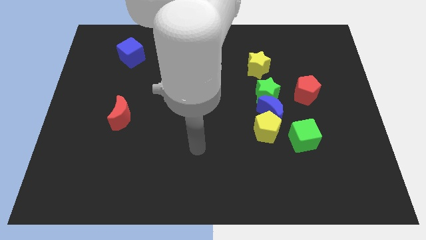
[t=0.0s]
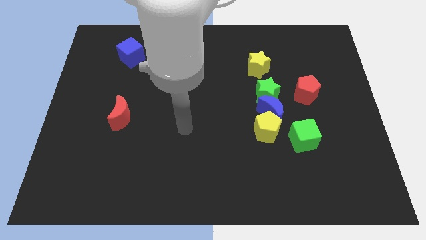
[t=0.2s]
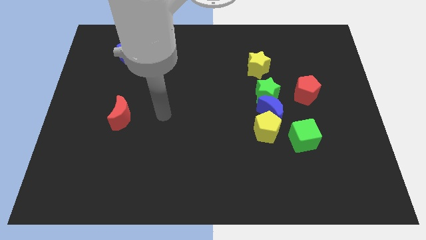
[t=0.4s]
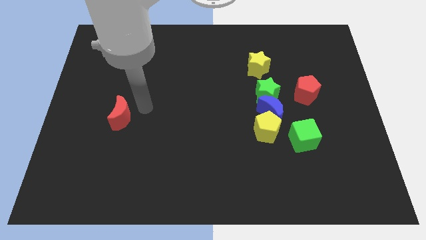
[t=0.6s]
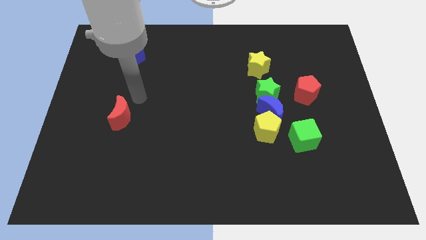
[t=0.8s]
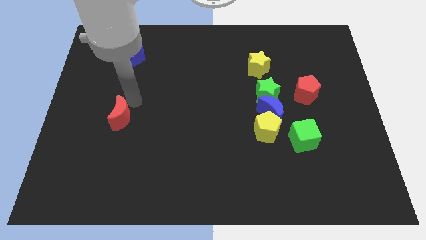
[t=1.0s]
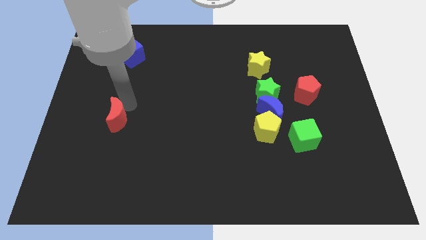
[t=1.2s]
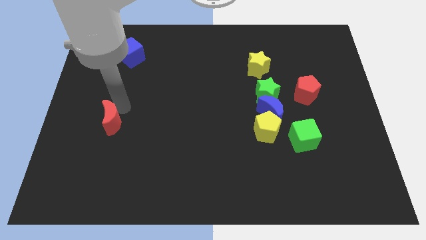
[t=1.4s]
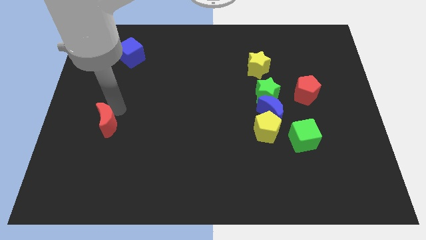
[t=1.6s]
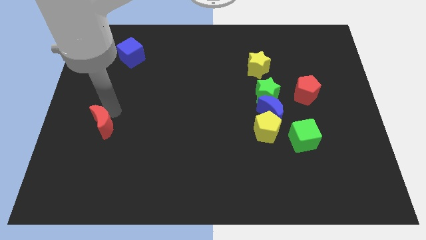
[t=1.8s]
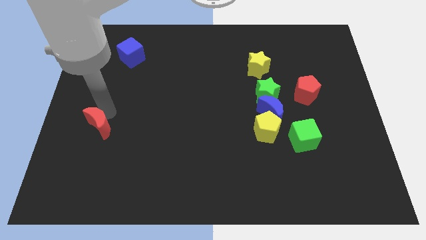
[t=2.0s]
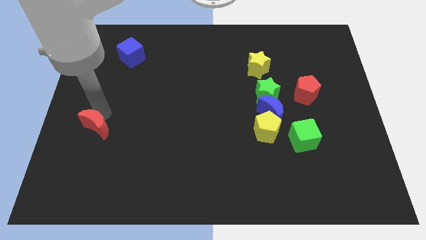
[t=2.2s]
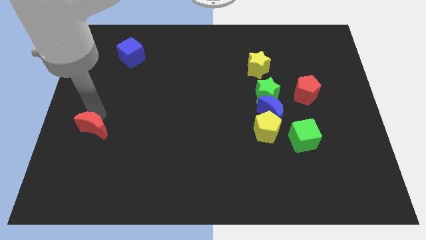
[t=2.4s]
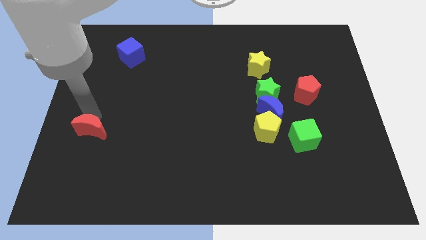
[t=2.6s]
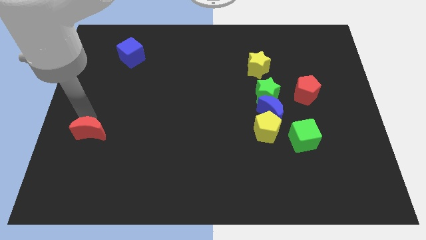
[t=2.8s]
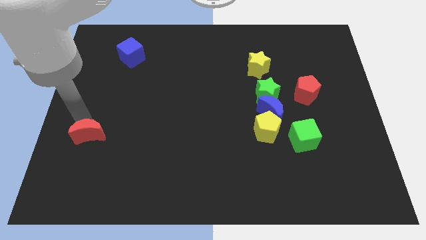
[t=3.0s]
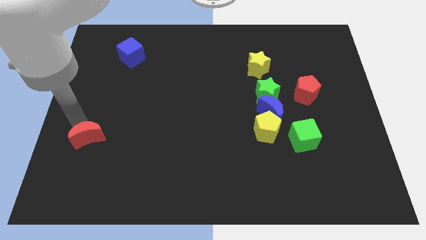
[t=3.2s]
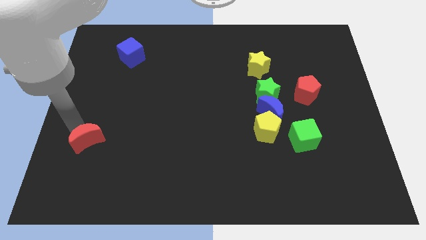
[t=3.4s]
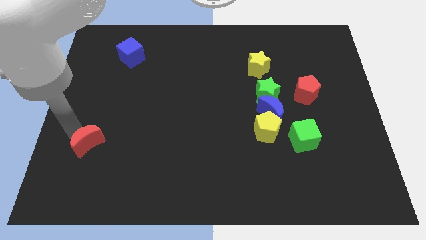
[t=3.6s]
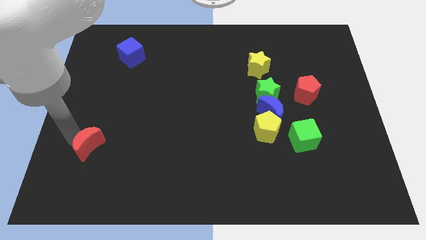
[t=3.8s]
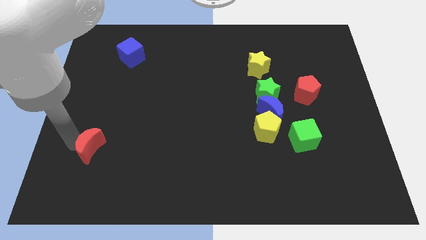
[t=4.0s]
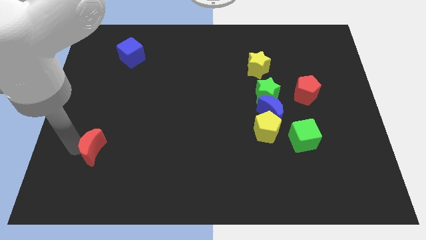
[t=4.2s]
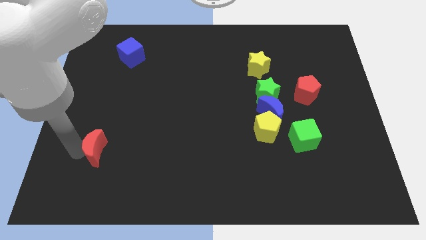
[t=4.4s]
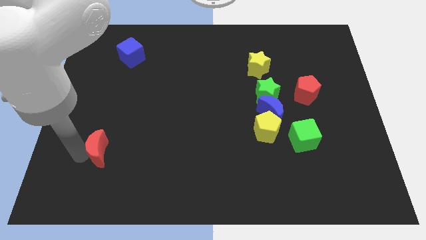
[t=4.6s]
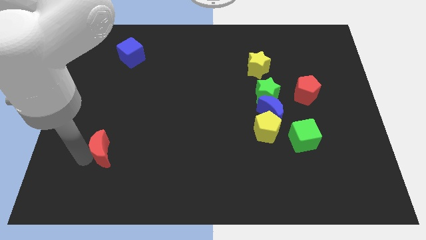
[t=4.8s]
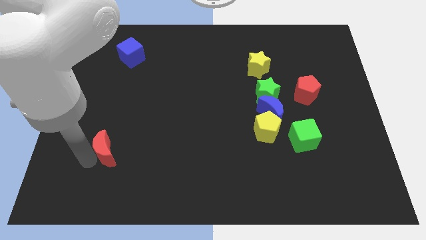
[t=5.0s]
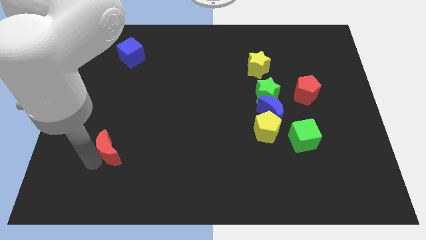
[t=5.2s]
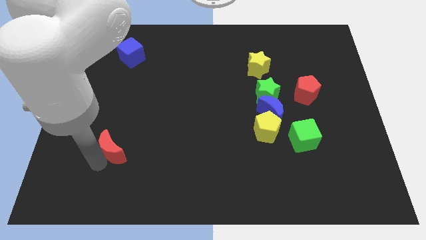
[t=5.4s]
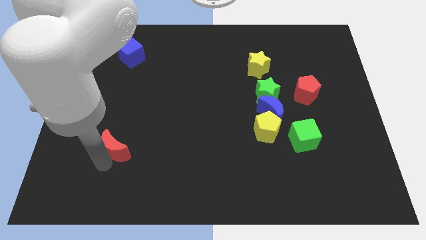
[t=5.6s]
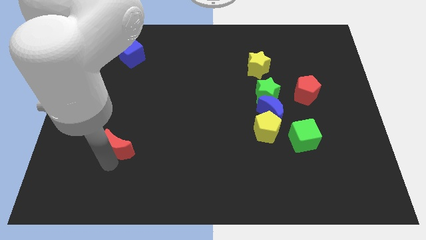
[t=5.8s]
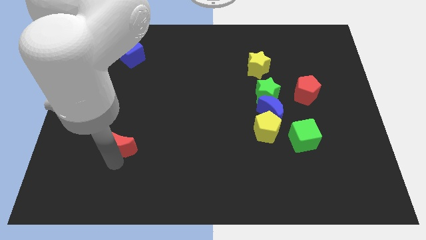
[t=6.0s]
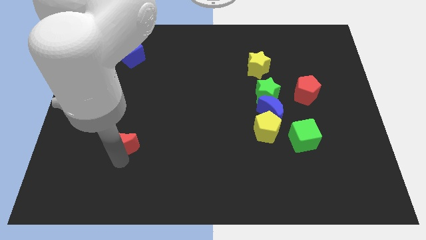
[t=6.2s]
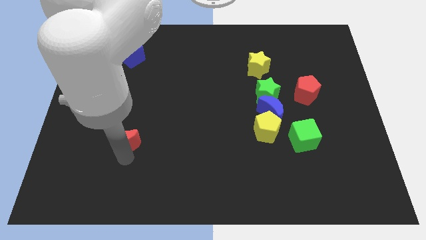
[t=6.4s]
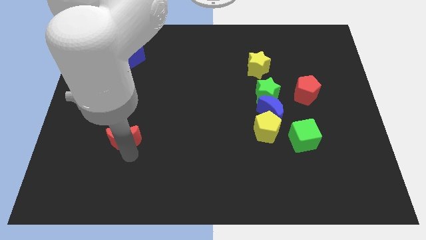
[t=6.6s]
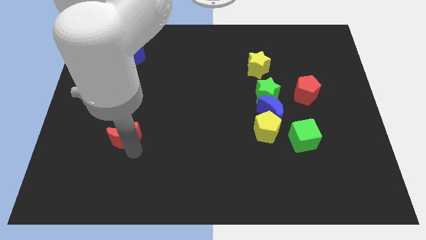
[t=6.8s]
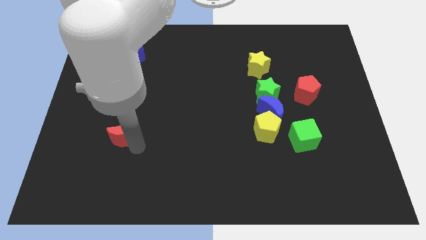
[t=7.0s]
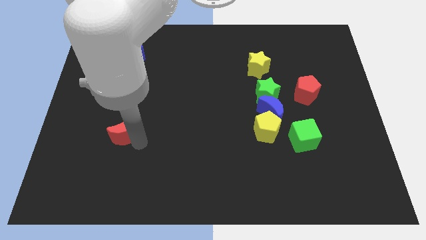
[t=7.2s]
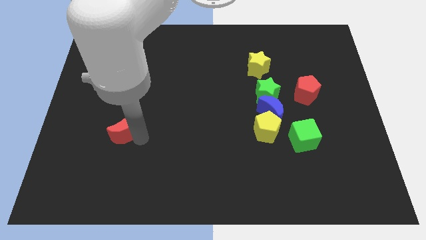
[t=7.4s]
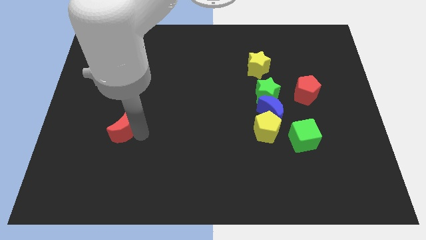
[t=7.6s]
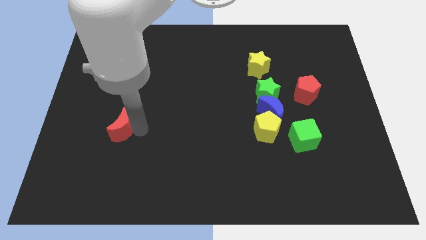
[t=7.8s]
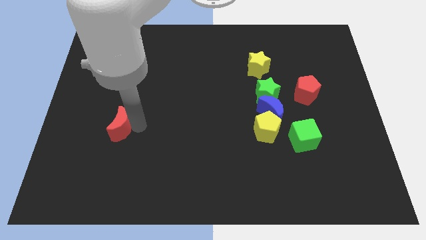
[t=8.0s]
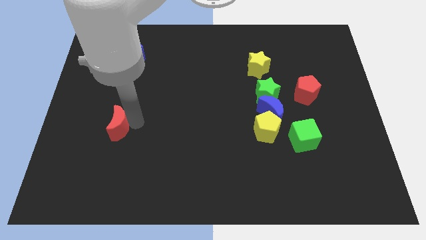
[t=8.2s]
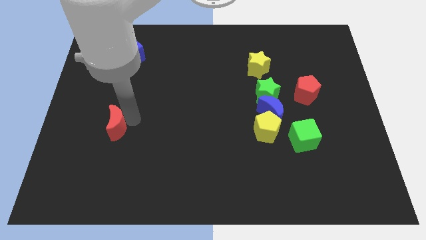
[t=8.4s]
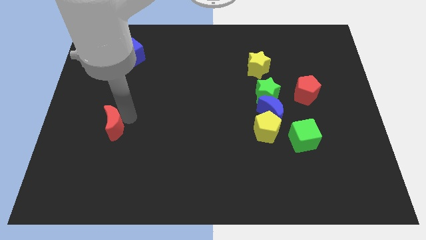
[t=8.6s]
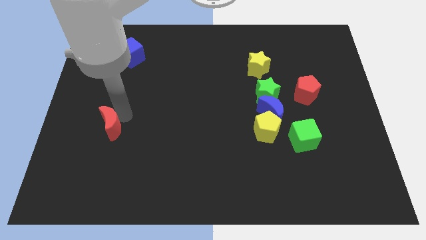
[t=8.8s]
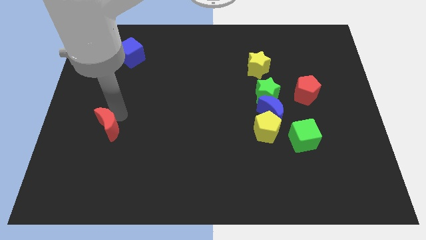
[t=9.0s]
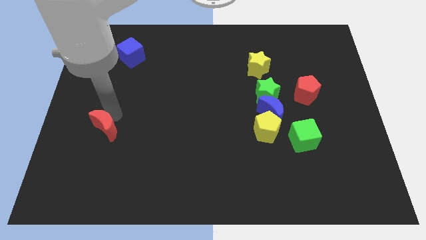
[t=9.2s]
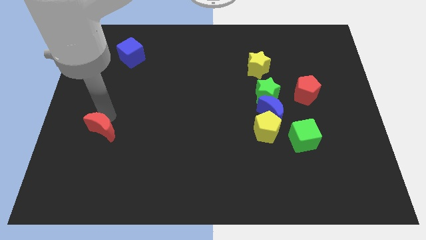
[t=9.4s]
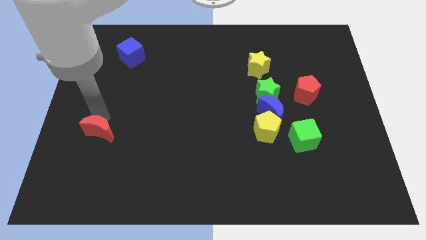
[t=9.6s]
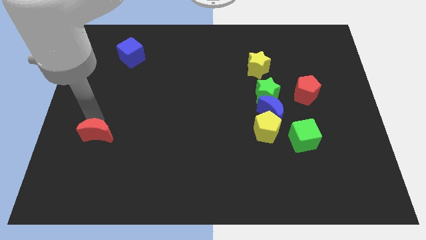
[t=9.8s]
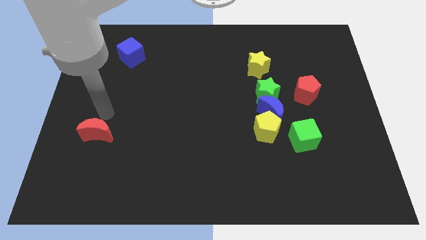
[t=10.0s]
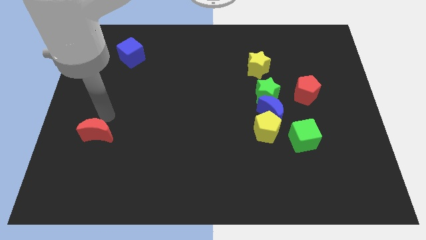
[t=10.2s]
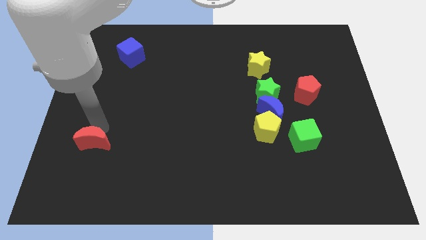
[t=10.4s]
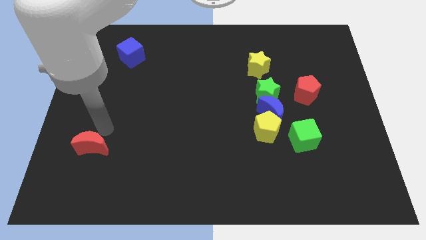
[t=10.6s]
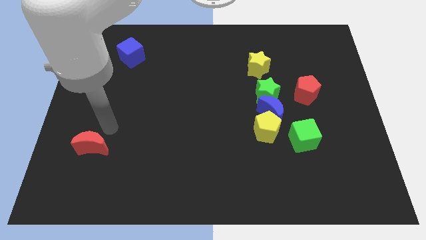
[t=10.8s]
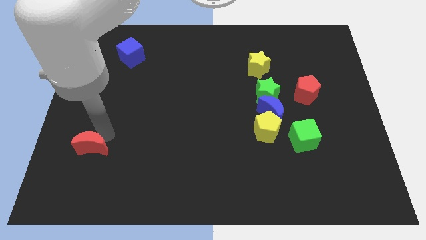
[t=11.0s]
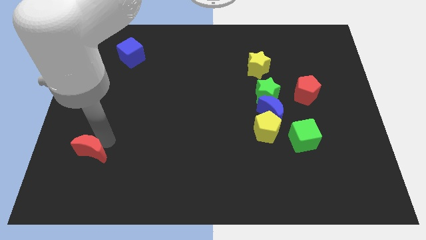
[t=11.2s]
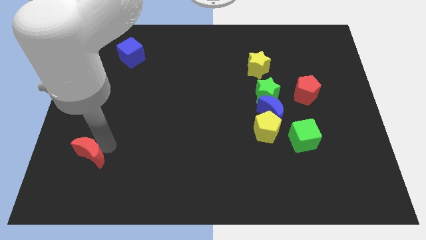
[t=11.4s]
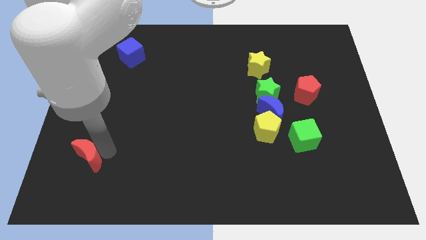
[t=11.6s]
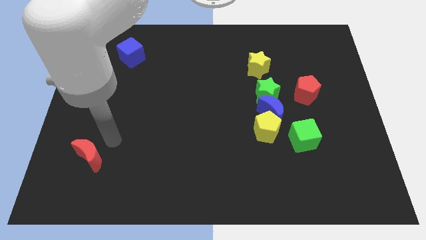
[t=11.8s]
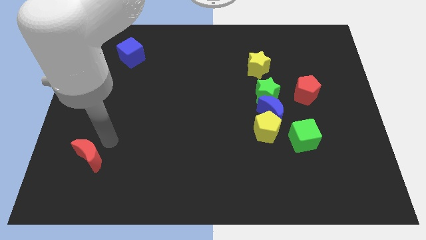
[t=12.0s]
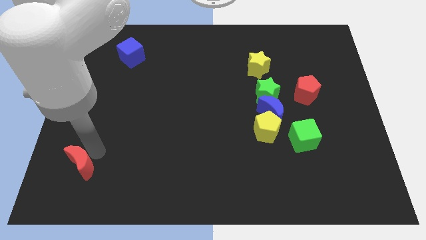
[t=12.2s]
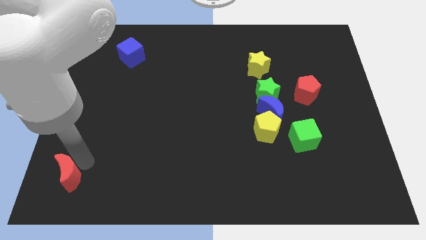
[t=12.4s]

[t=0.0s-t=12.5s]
put the red moon to the bottom left of the board
